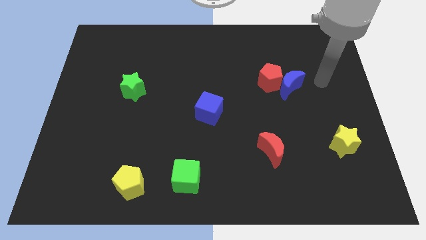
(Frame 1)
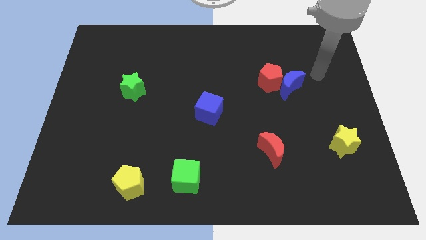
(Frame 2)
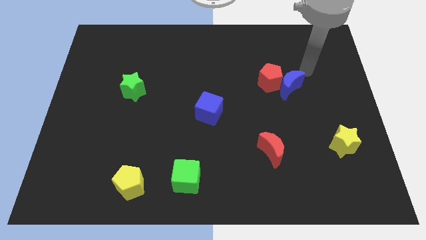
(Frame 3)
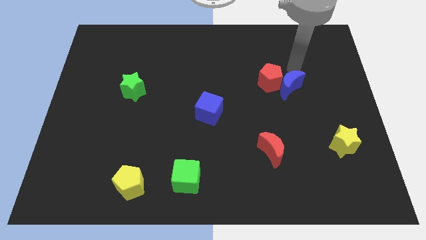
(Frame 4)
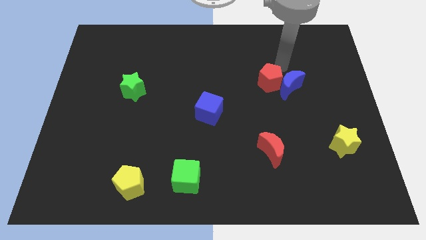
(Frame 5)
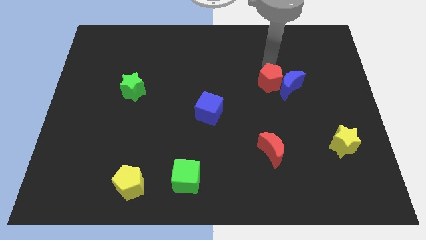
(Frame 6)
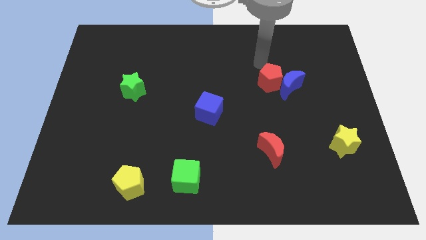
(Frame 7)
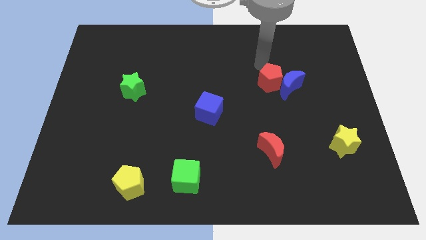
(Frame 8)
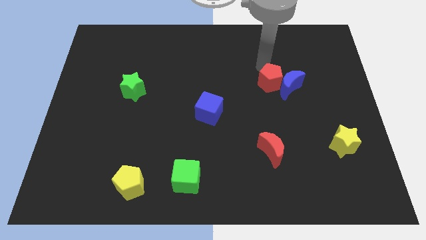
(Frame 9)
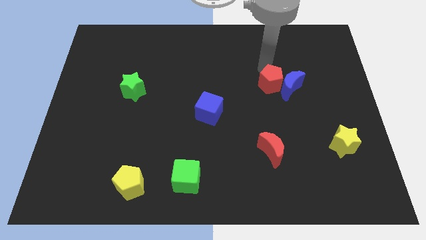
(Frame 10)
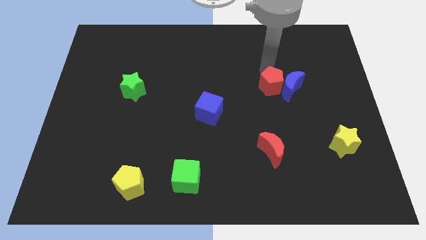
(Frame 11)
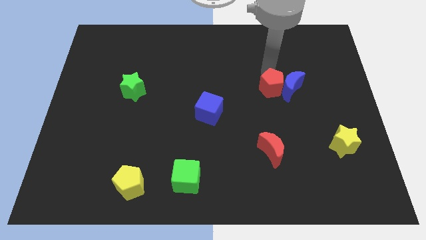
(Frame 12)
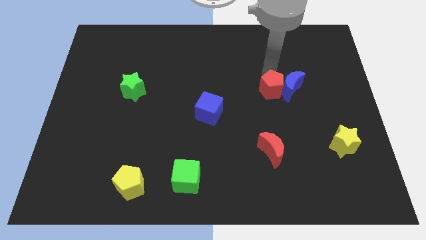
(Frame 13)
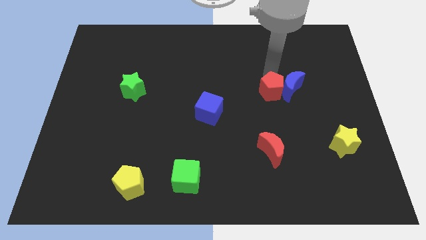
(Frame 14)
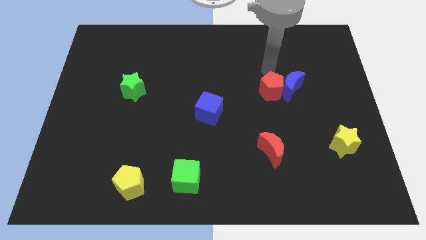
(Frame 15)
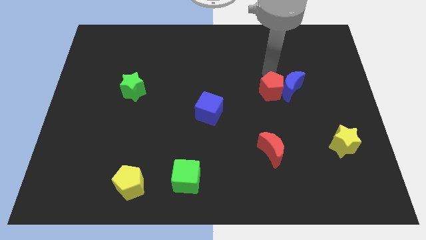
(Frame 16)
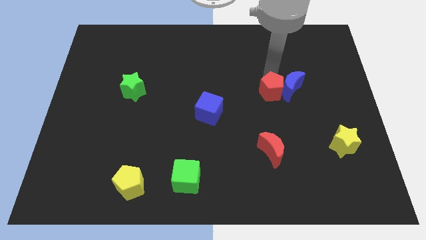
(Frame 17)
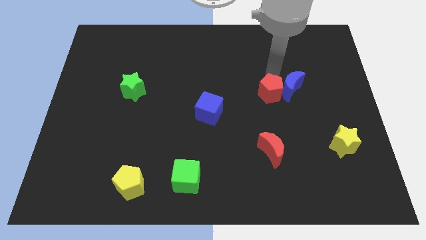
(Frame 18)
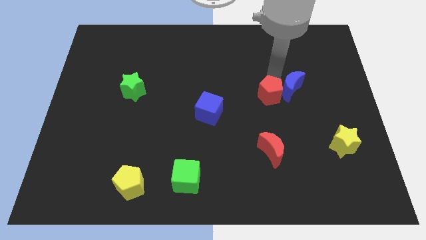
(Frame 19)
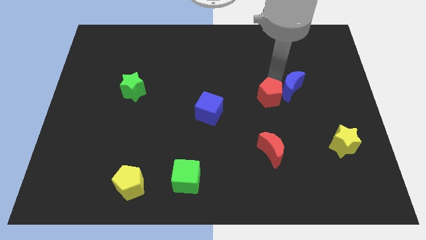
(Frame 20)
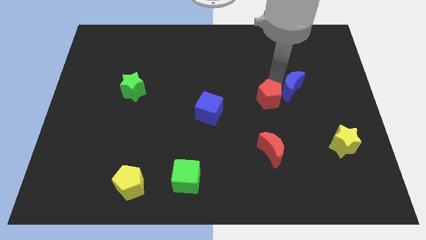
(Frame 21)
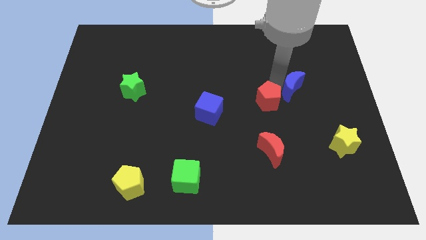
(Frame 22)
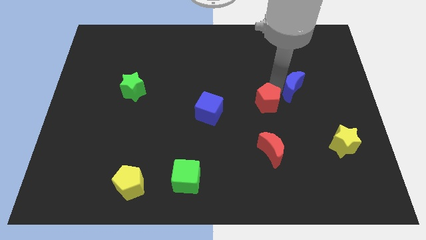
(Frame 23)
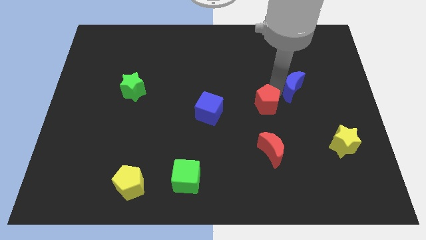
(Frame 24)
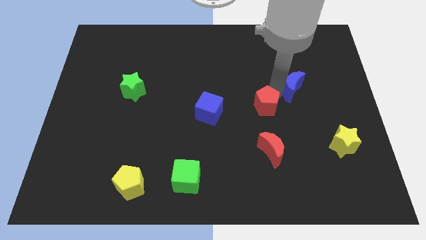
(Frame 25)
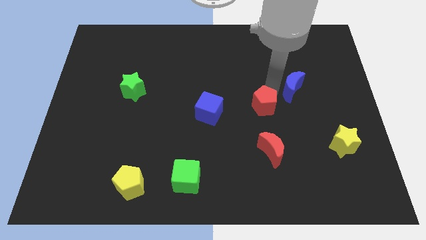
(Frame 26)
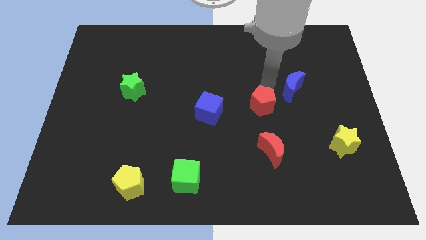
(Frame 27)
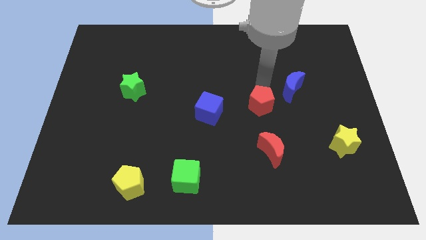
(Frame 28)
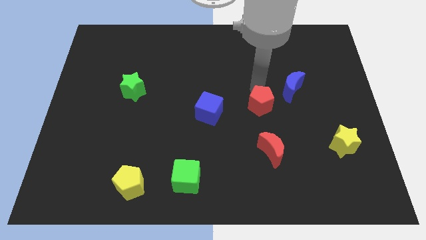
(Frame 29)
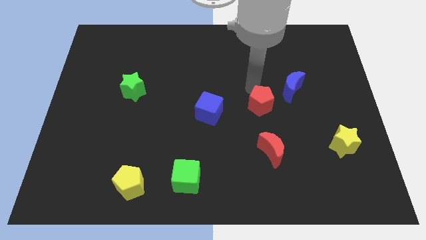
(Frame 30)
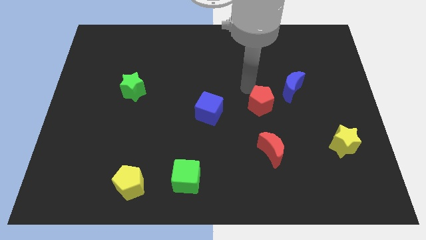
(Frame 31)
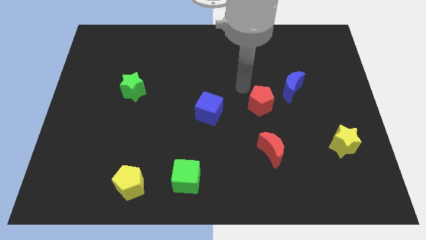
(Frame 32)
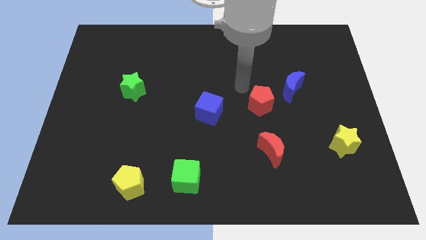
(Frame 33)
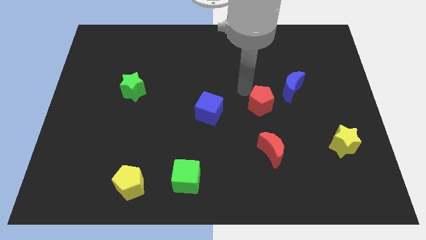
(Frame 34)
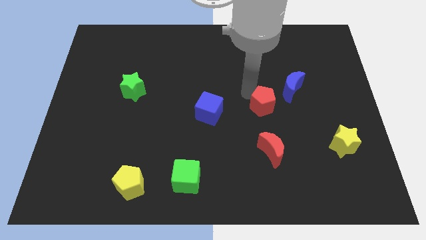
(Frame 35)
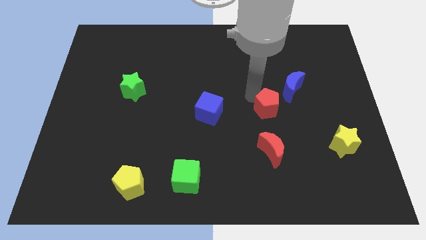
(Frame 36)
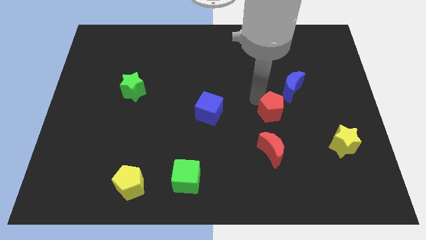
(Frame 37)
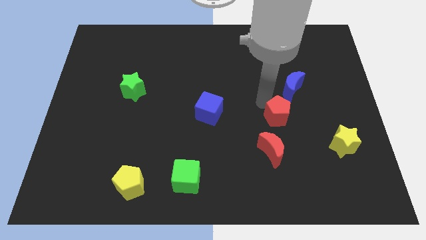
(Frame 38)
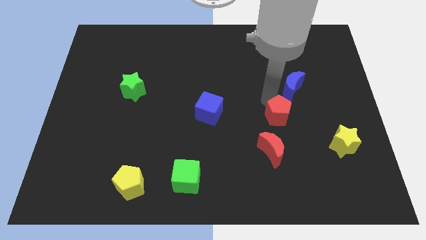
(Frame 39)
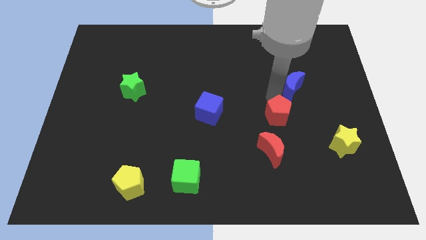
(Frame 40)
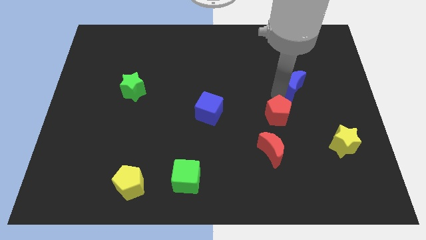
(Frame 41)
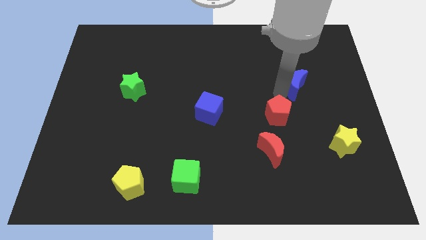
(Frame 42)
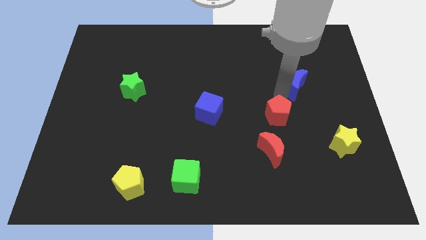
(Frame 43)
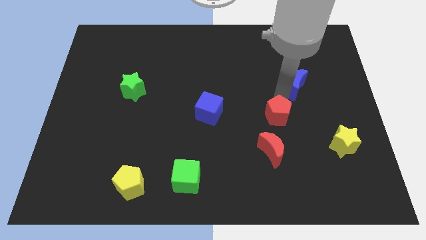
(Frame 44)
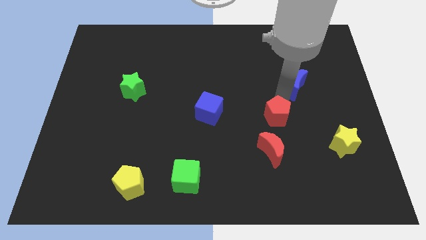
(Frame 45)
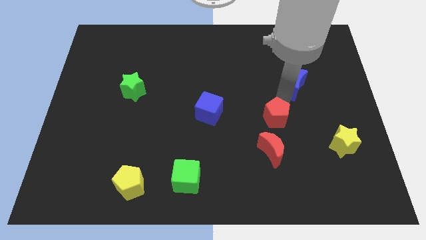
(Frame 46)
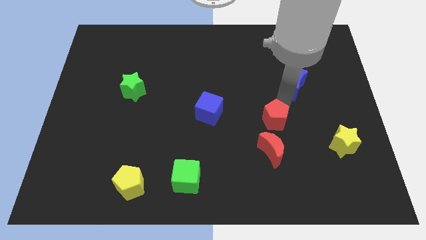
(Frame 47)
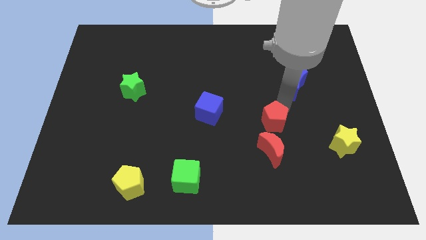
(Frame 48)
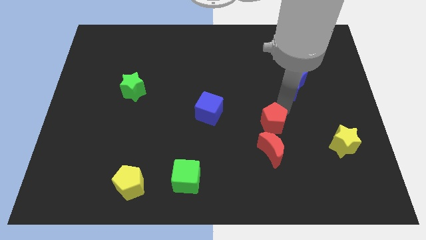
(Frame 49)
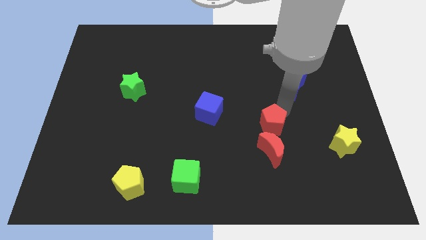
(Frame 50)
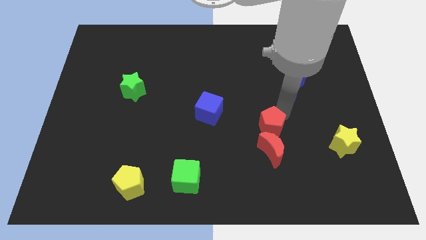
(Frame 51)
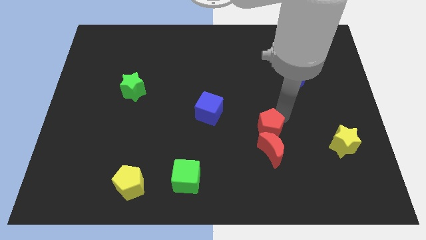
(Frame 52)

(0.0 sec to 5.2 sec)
push the red pentagon towards the red moon

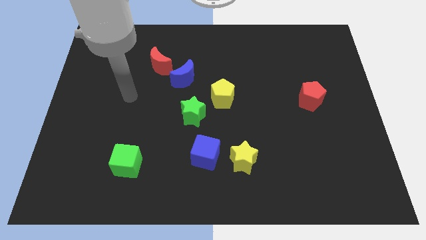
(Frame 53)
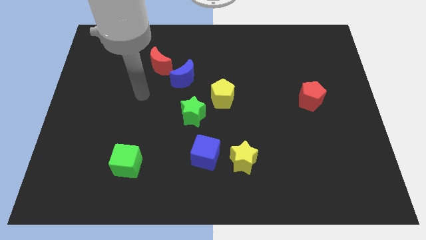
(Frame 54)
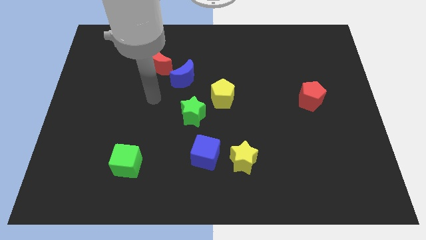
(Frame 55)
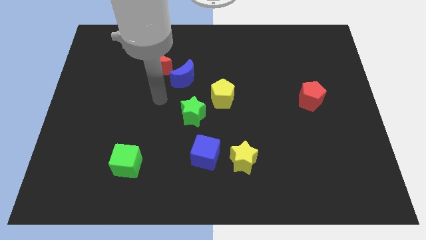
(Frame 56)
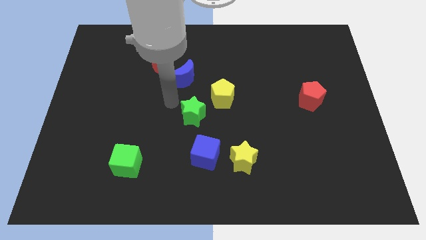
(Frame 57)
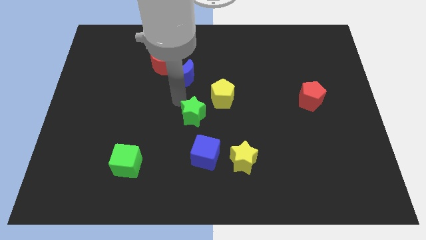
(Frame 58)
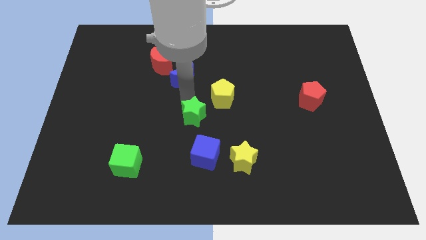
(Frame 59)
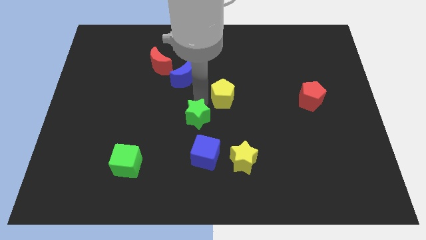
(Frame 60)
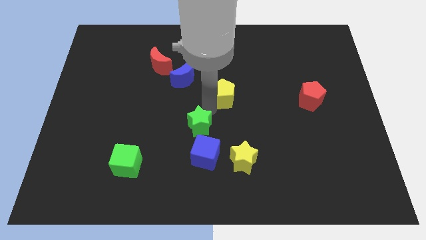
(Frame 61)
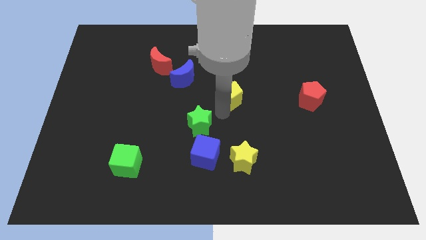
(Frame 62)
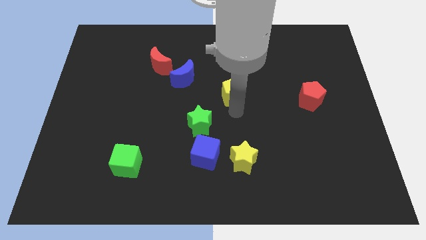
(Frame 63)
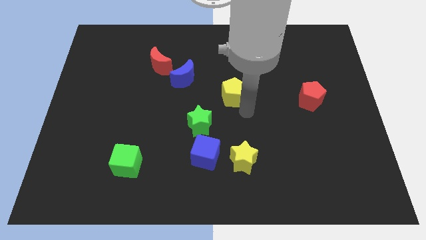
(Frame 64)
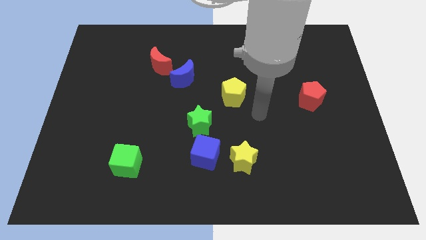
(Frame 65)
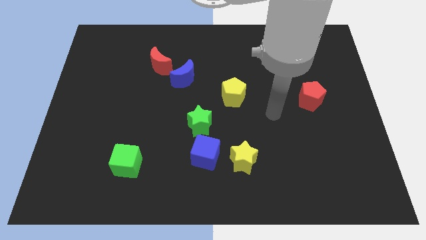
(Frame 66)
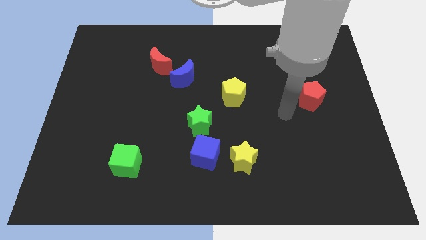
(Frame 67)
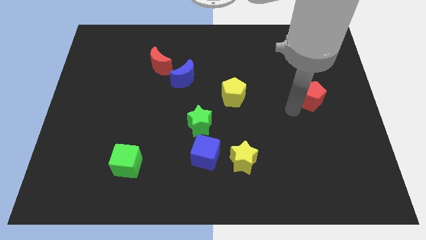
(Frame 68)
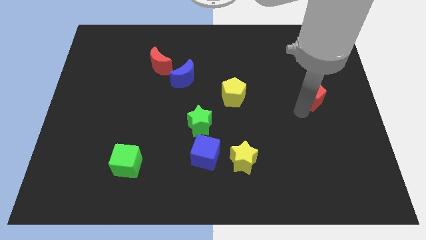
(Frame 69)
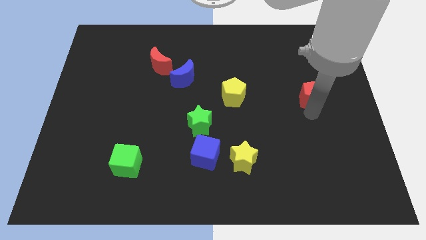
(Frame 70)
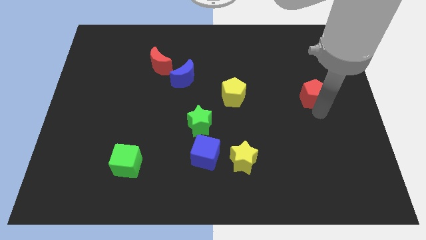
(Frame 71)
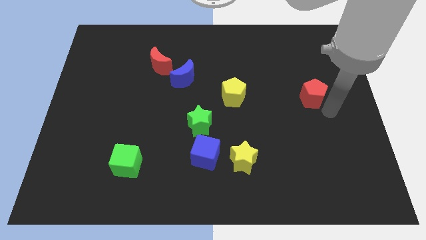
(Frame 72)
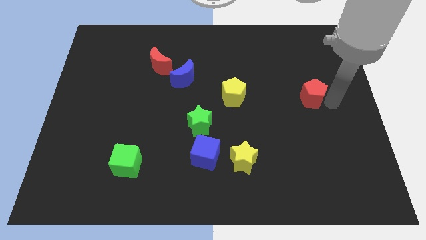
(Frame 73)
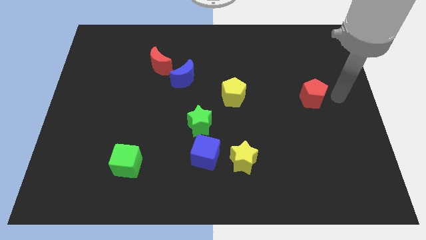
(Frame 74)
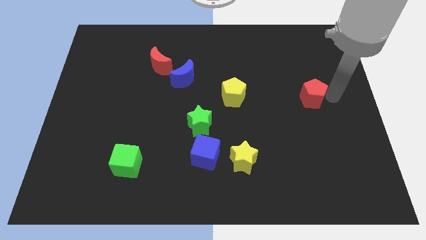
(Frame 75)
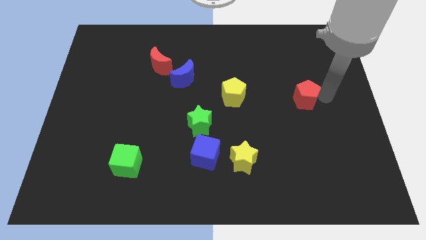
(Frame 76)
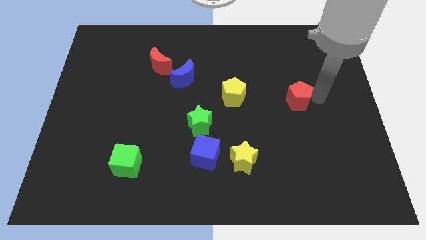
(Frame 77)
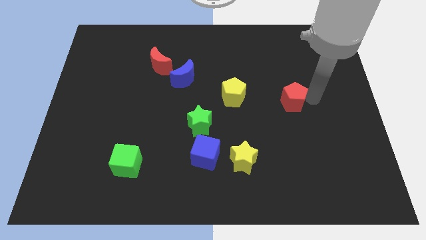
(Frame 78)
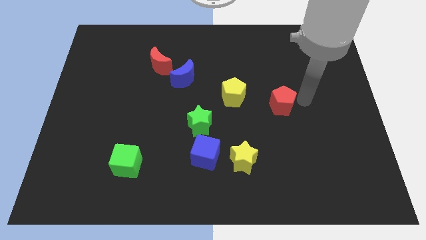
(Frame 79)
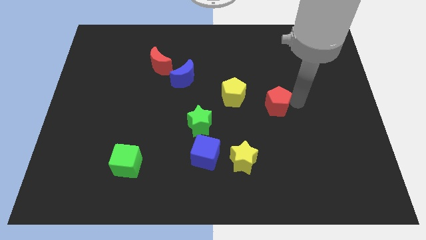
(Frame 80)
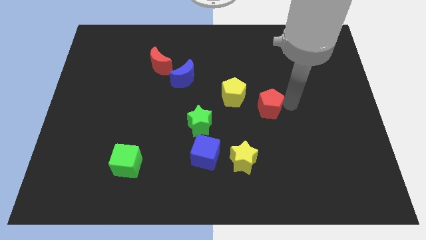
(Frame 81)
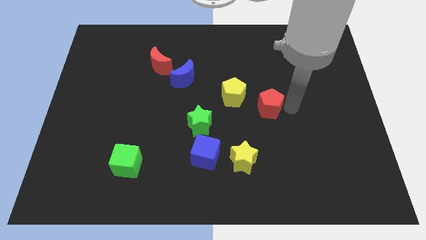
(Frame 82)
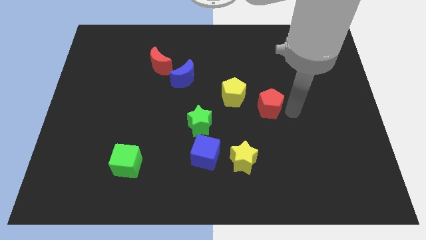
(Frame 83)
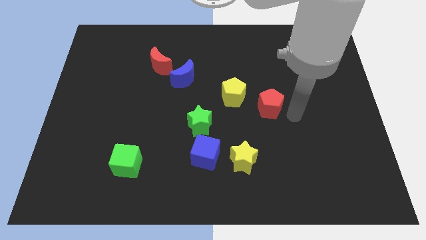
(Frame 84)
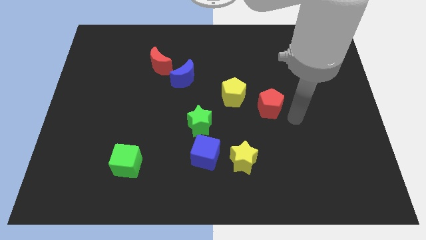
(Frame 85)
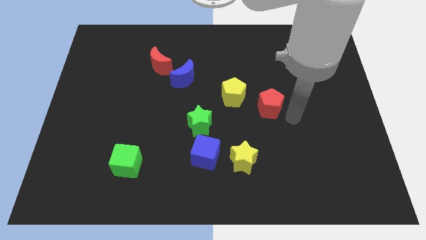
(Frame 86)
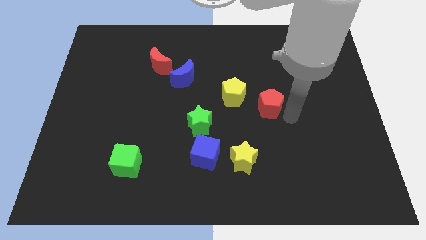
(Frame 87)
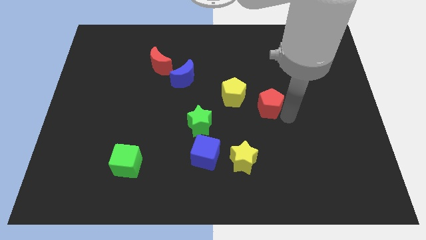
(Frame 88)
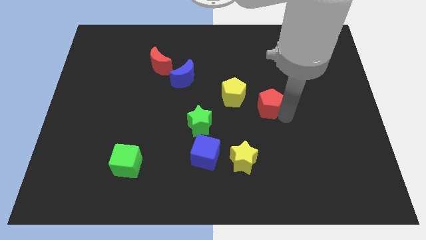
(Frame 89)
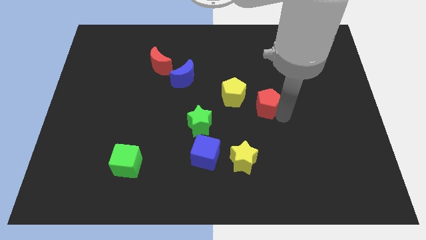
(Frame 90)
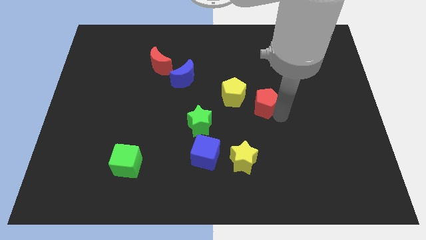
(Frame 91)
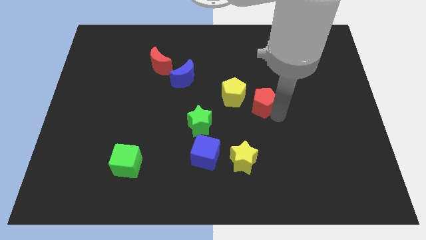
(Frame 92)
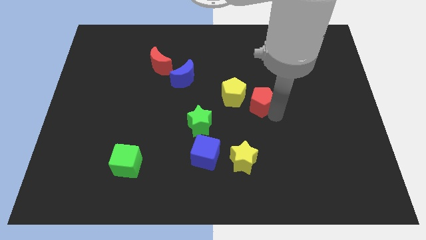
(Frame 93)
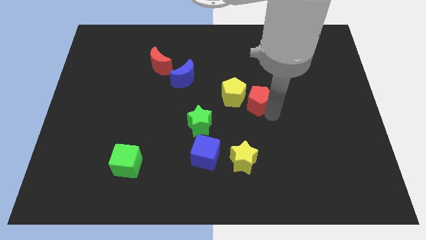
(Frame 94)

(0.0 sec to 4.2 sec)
put the red pentagon to the yellow pentagon
